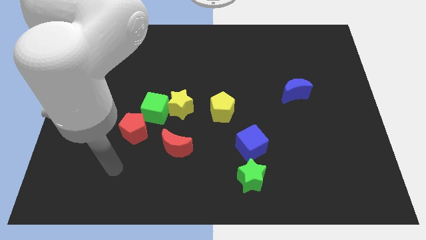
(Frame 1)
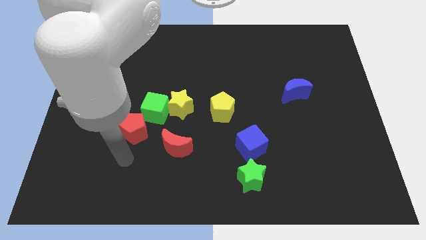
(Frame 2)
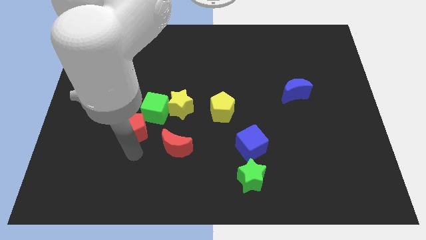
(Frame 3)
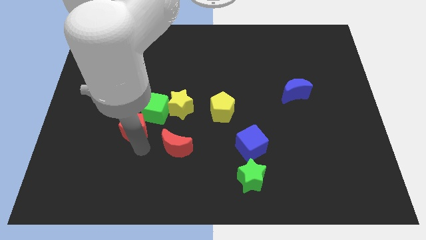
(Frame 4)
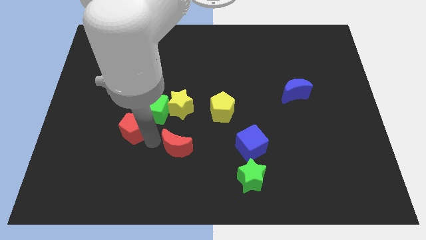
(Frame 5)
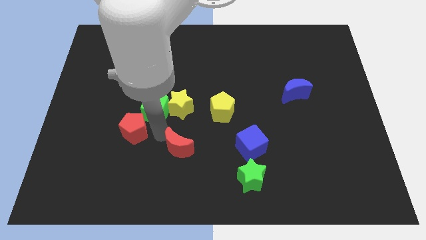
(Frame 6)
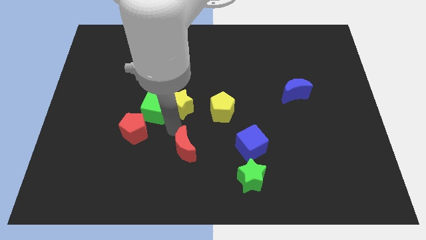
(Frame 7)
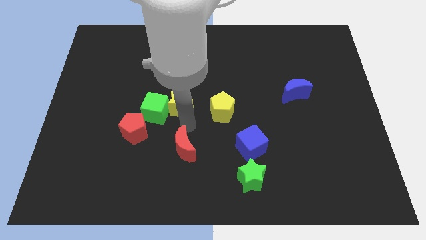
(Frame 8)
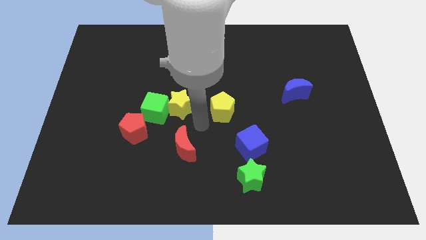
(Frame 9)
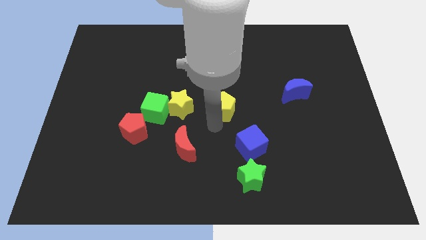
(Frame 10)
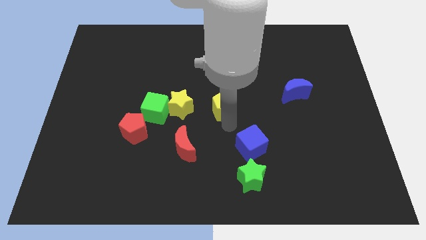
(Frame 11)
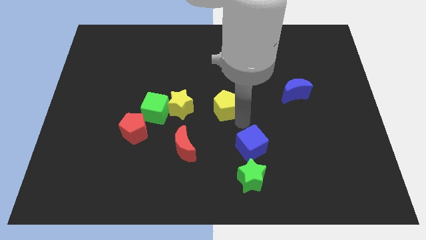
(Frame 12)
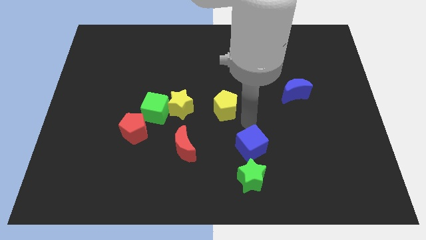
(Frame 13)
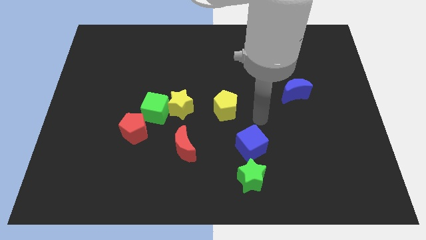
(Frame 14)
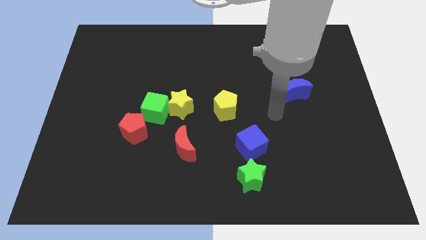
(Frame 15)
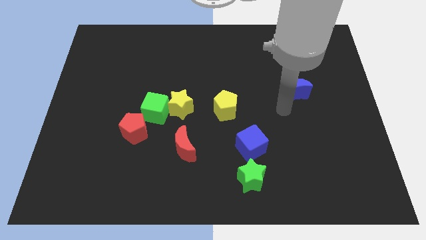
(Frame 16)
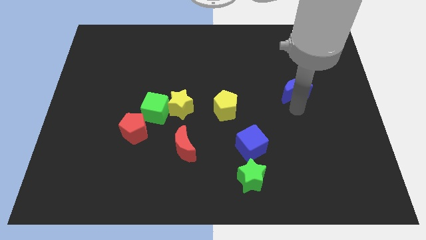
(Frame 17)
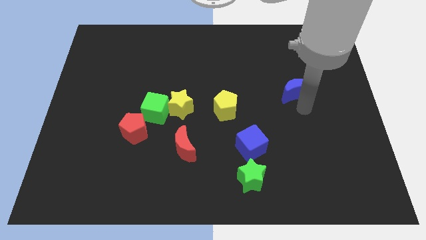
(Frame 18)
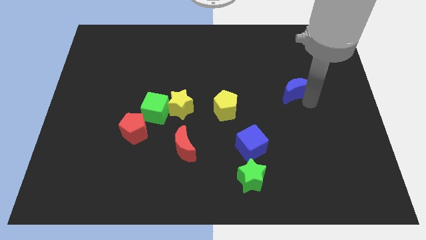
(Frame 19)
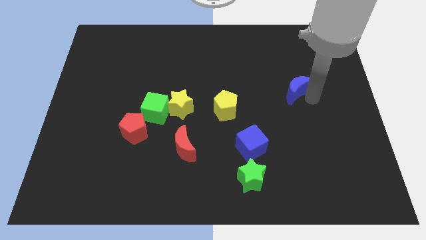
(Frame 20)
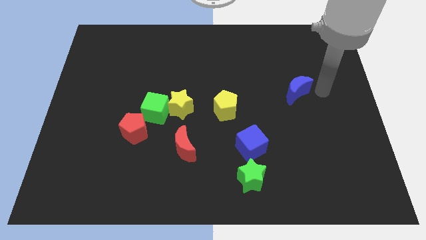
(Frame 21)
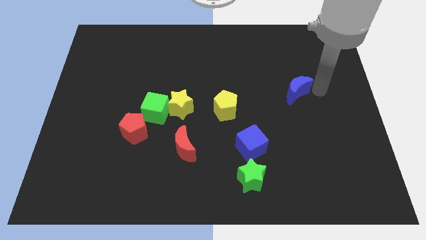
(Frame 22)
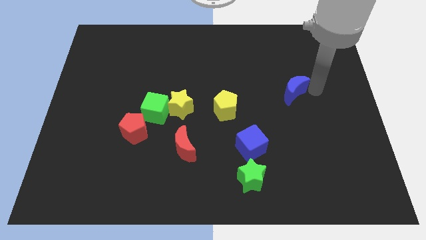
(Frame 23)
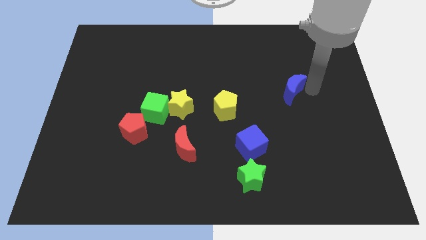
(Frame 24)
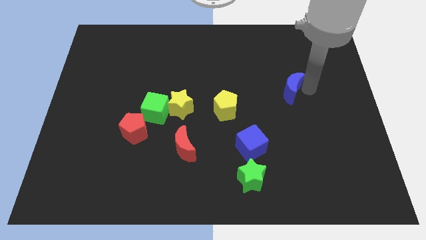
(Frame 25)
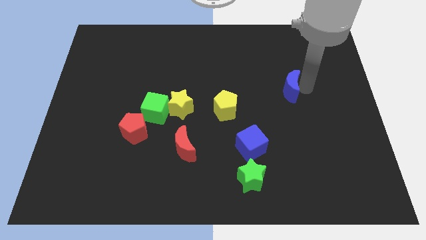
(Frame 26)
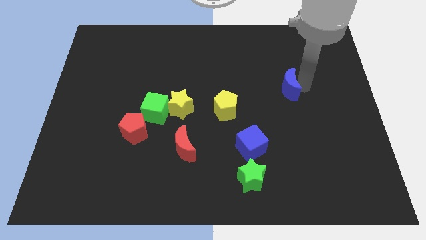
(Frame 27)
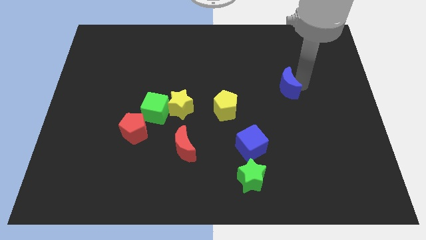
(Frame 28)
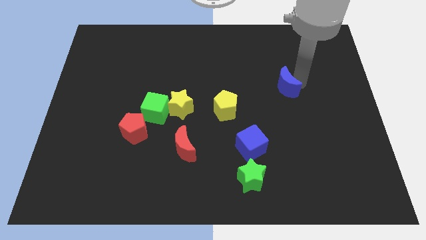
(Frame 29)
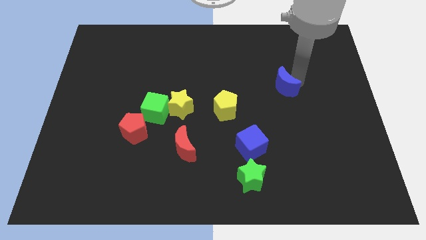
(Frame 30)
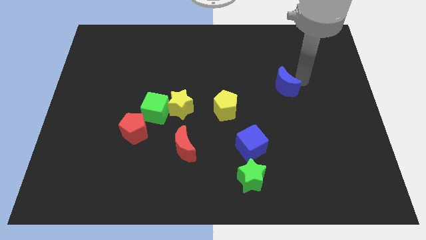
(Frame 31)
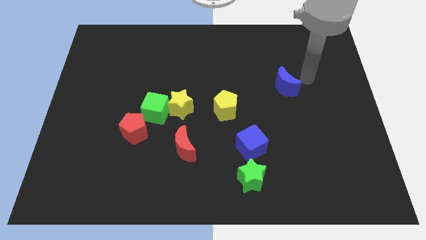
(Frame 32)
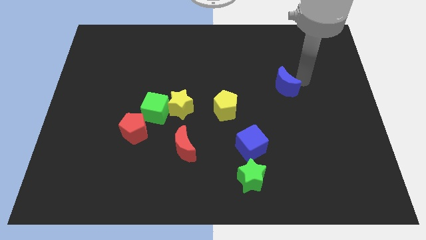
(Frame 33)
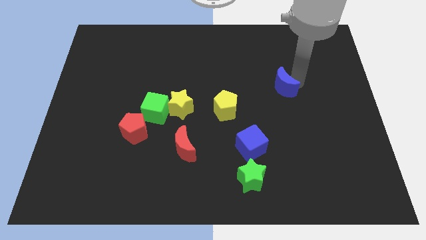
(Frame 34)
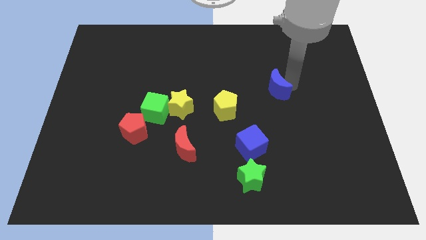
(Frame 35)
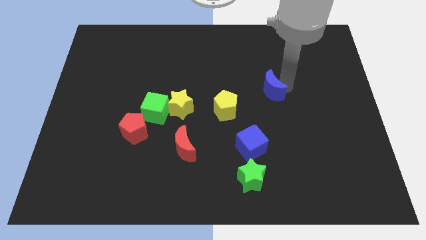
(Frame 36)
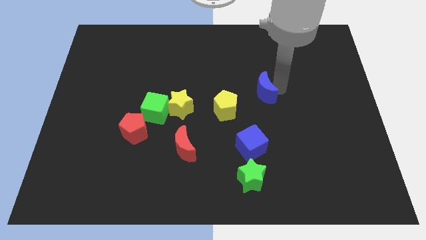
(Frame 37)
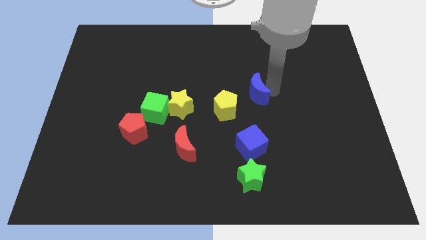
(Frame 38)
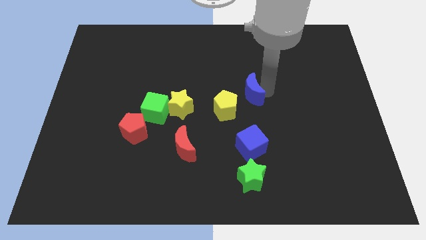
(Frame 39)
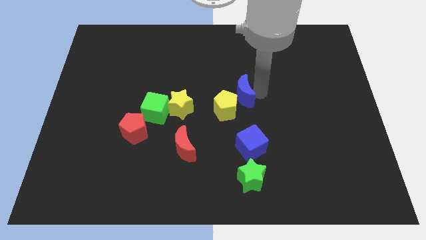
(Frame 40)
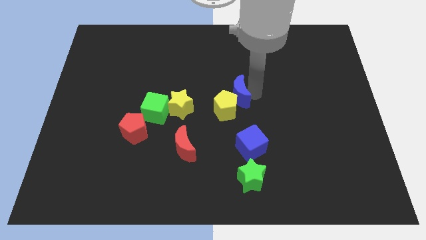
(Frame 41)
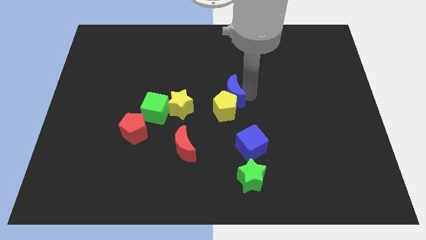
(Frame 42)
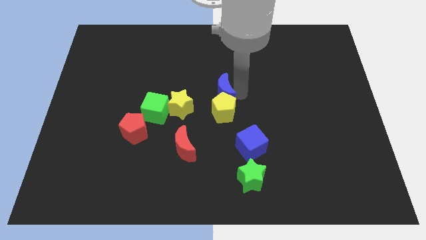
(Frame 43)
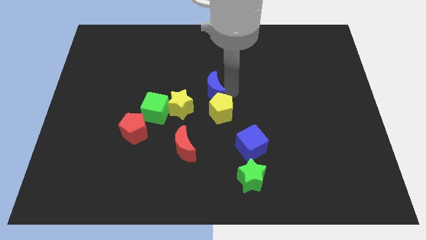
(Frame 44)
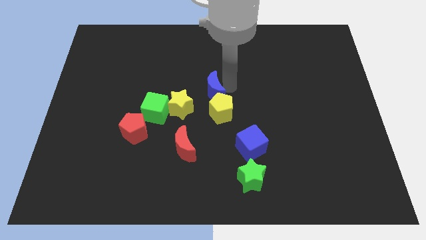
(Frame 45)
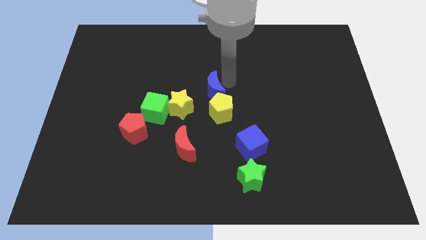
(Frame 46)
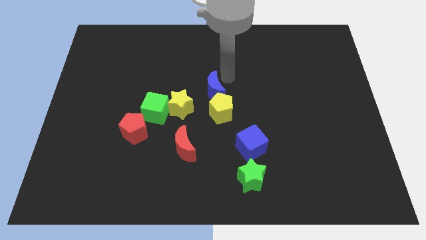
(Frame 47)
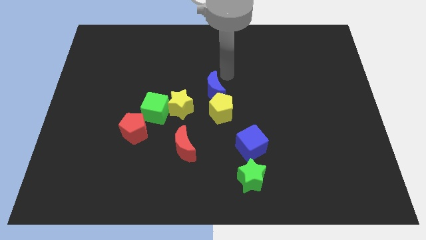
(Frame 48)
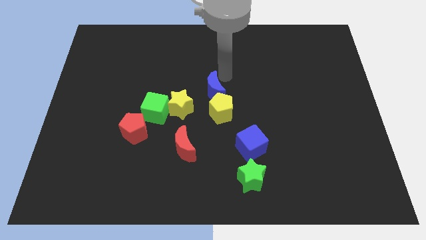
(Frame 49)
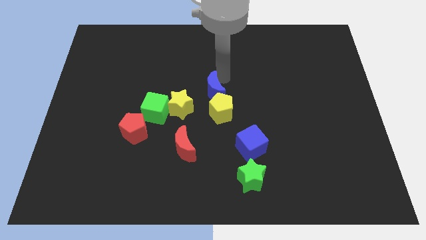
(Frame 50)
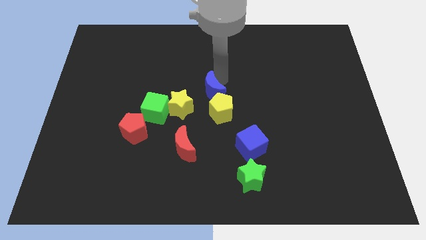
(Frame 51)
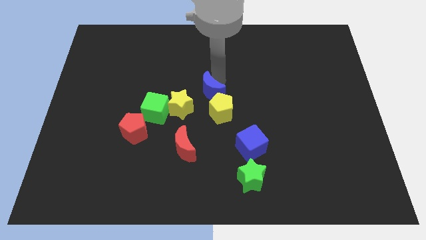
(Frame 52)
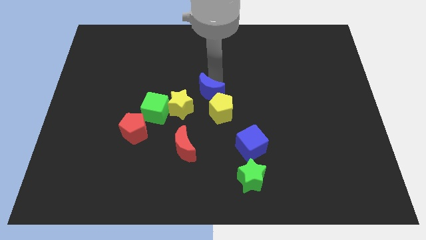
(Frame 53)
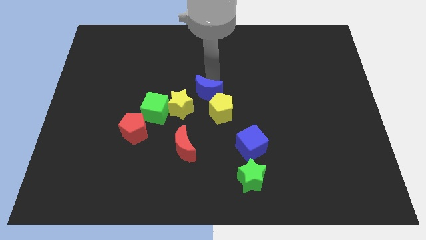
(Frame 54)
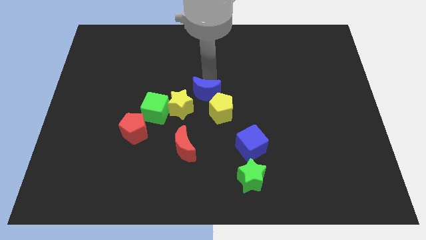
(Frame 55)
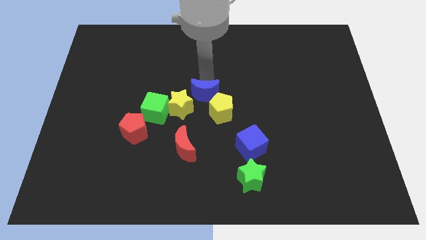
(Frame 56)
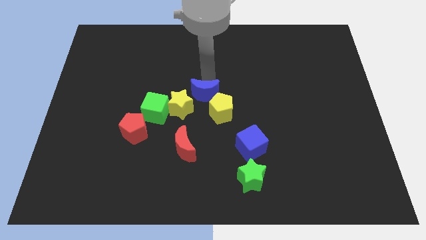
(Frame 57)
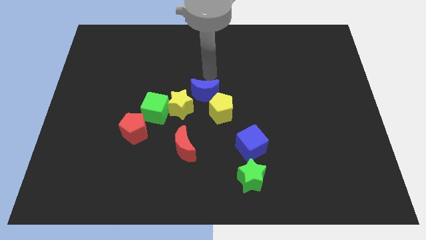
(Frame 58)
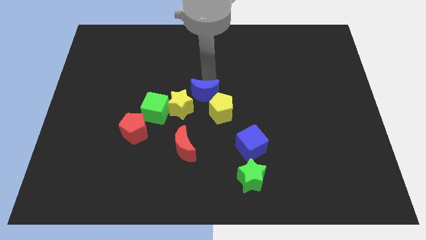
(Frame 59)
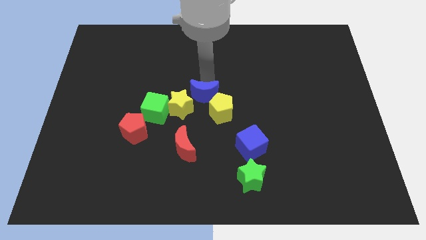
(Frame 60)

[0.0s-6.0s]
move the blue moon just right of the green cube

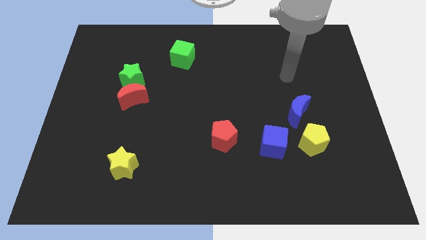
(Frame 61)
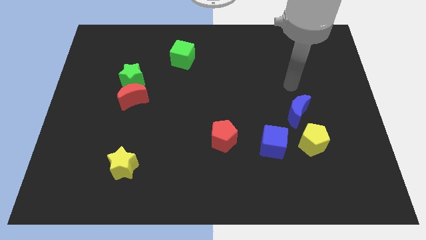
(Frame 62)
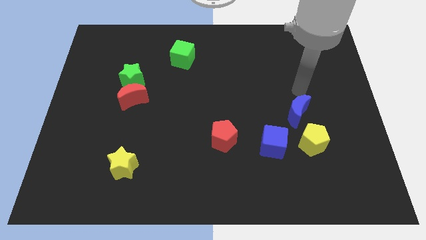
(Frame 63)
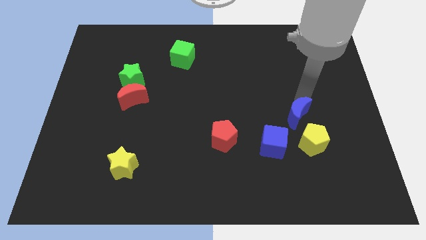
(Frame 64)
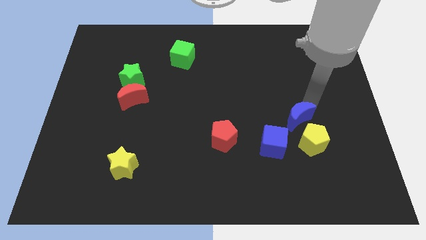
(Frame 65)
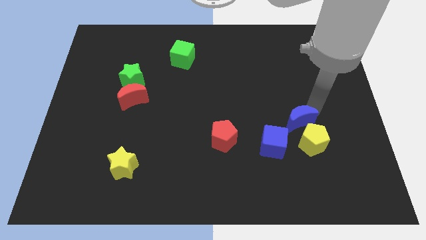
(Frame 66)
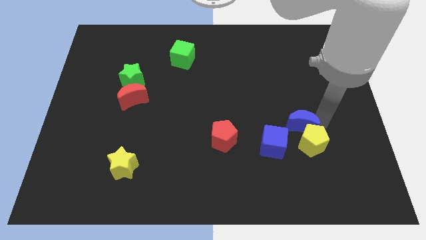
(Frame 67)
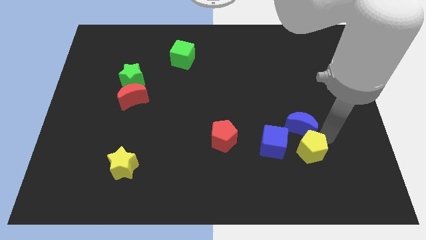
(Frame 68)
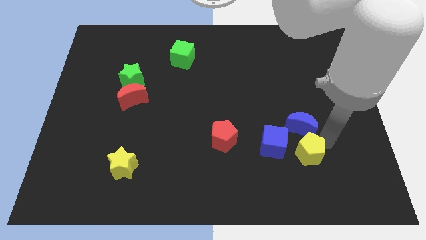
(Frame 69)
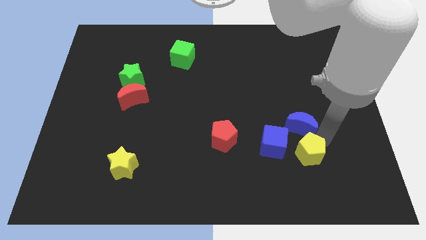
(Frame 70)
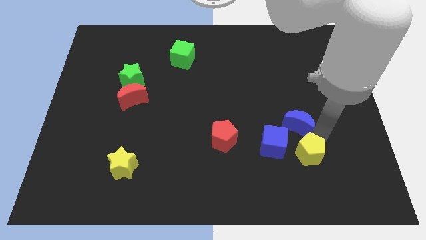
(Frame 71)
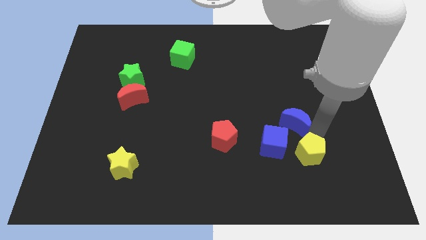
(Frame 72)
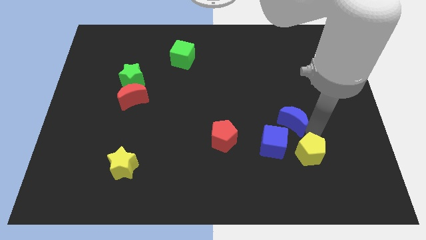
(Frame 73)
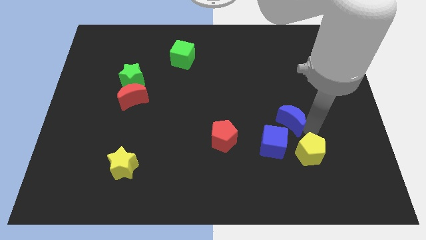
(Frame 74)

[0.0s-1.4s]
slide the blue moon to the top of the blue cube

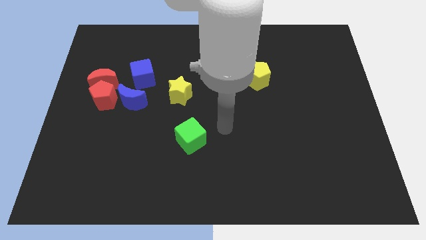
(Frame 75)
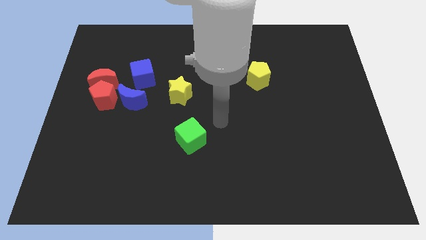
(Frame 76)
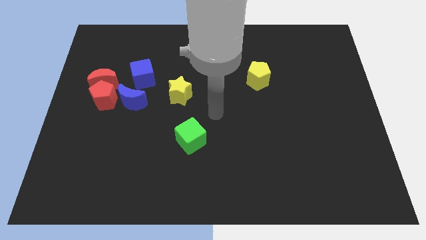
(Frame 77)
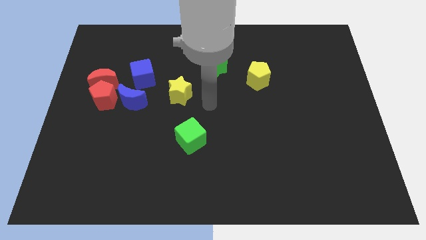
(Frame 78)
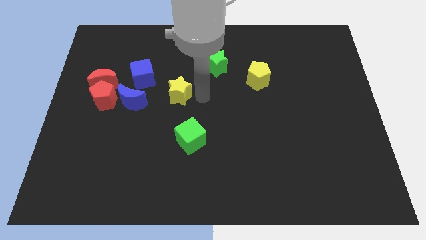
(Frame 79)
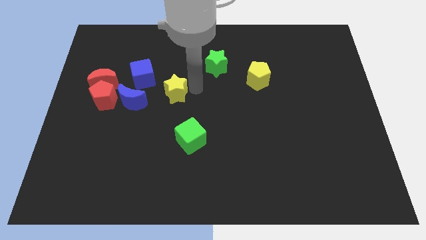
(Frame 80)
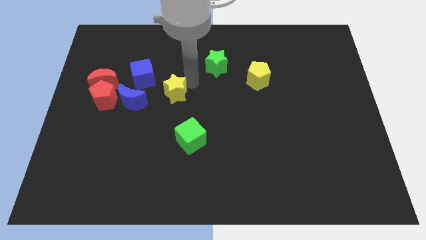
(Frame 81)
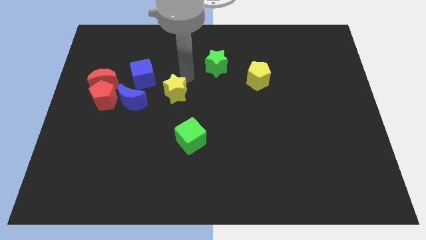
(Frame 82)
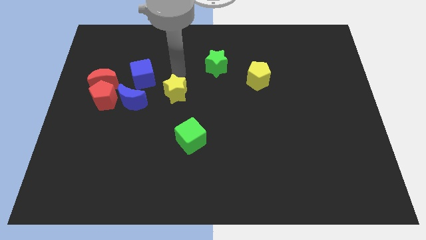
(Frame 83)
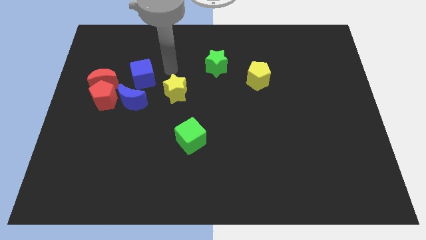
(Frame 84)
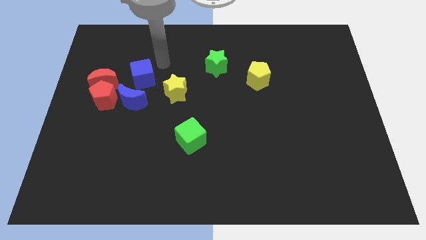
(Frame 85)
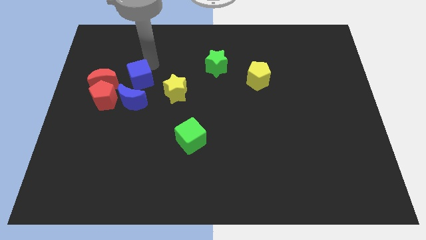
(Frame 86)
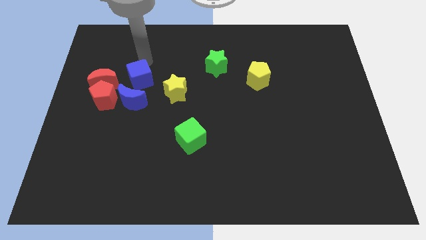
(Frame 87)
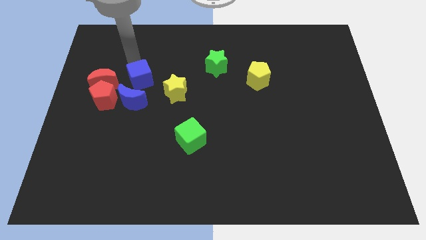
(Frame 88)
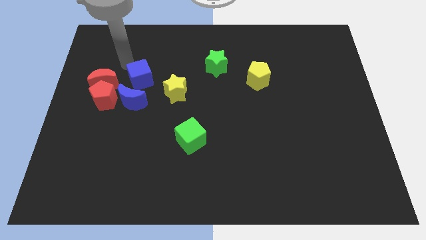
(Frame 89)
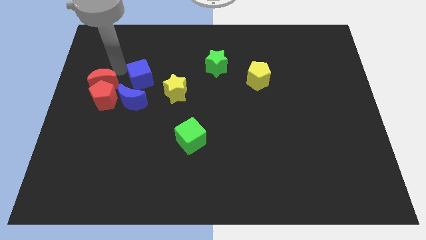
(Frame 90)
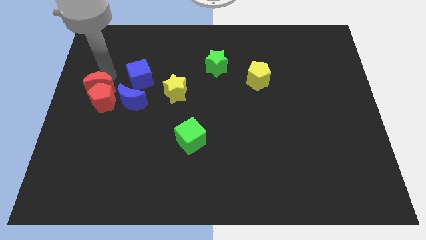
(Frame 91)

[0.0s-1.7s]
put the red pentagon diagonally down and to the left of the blue moon
